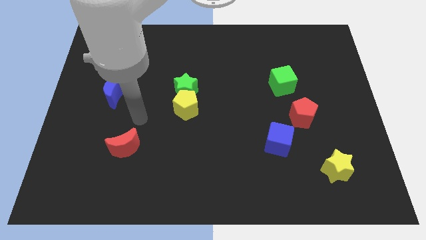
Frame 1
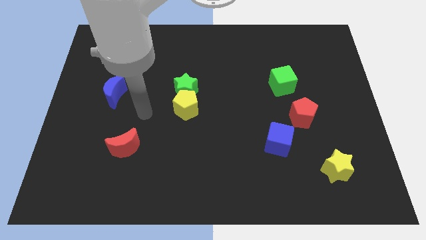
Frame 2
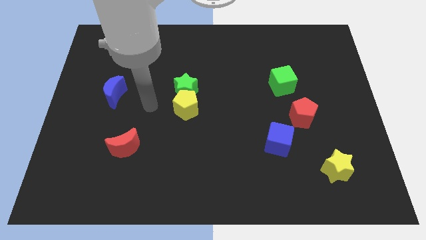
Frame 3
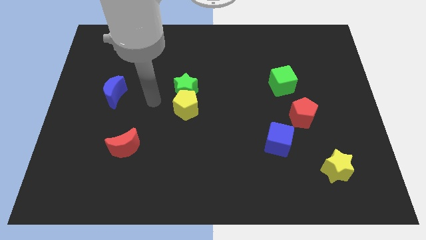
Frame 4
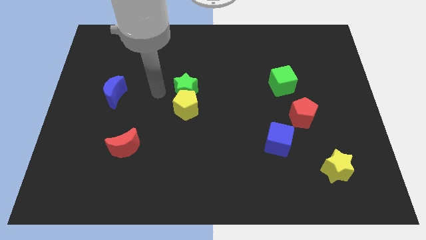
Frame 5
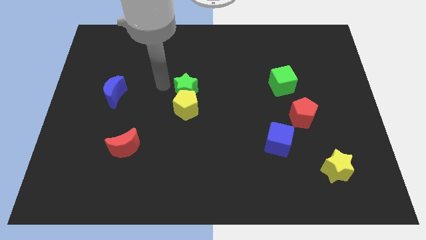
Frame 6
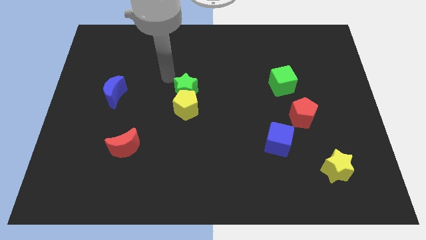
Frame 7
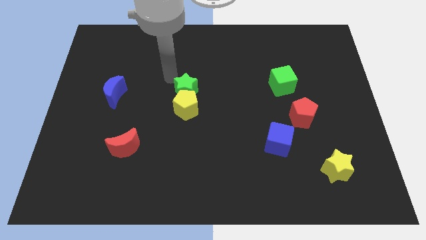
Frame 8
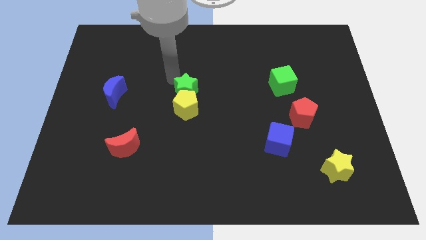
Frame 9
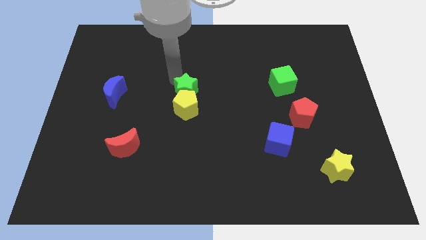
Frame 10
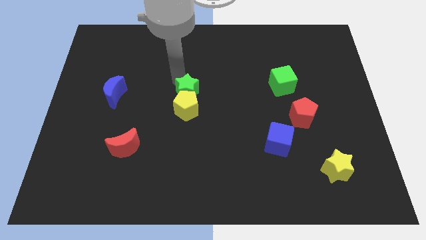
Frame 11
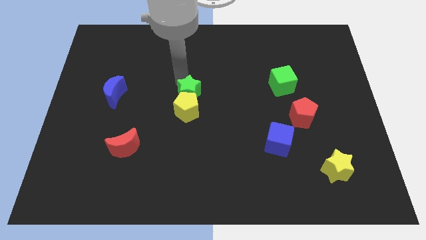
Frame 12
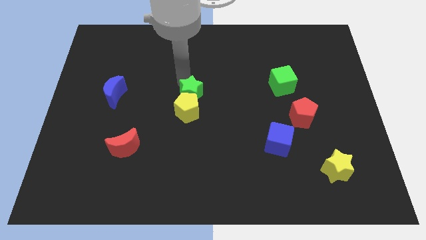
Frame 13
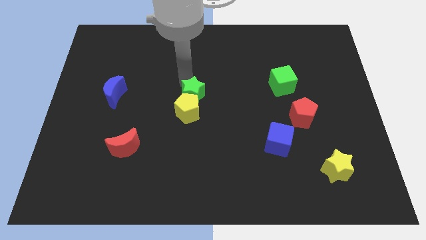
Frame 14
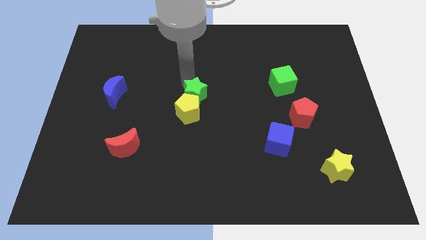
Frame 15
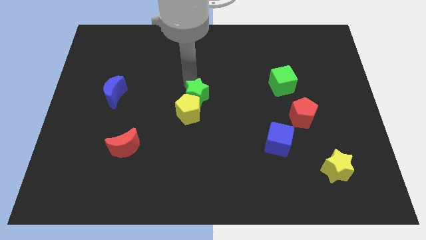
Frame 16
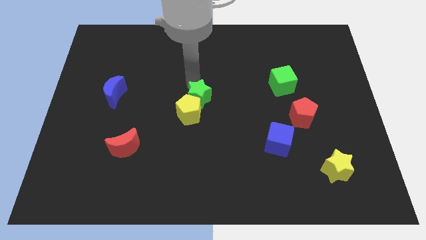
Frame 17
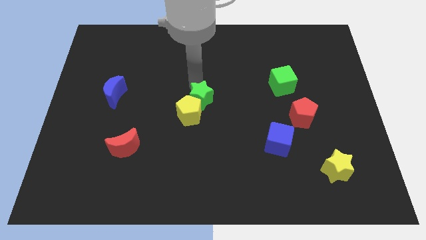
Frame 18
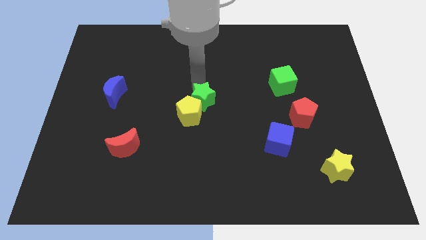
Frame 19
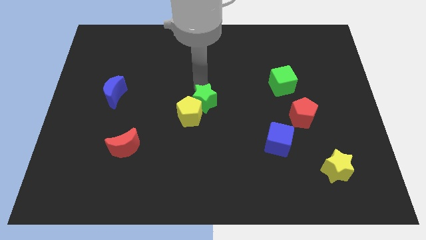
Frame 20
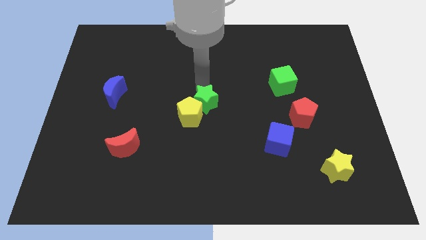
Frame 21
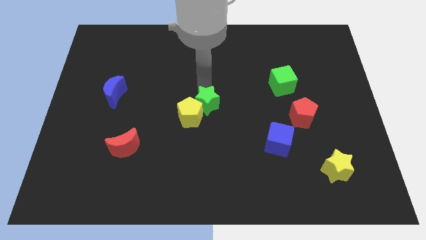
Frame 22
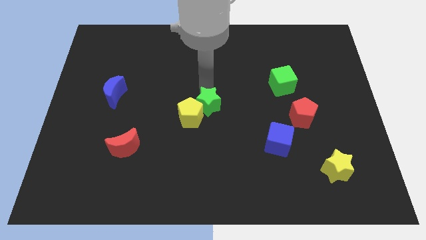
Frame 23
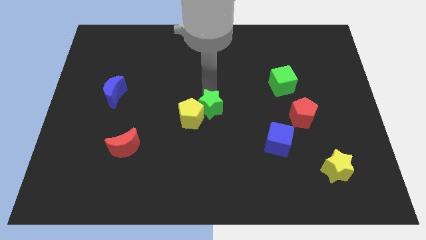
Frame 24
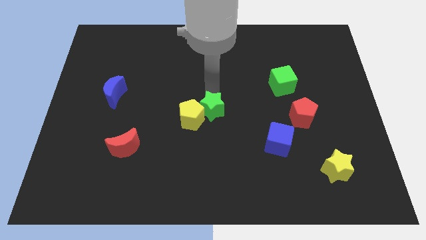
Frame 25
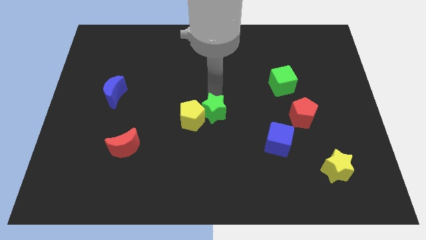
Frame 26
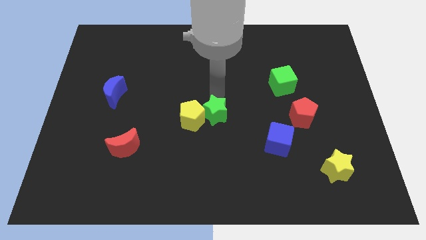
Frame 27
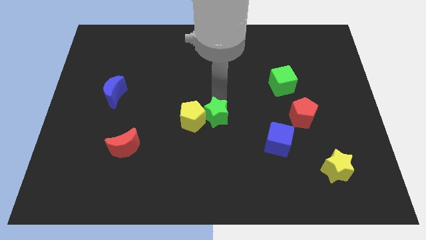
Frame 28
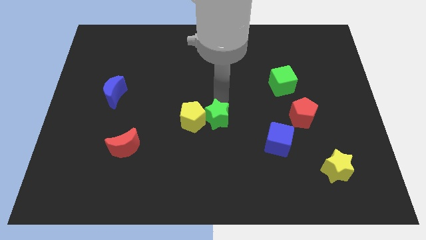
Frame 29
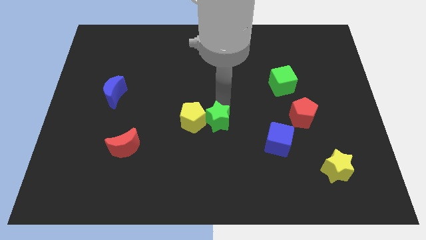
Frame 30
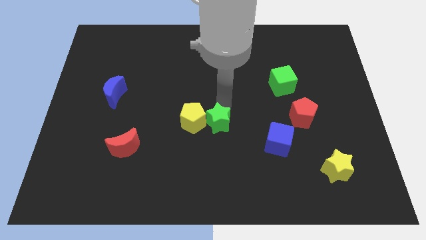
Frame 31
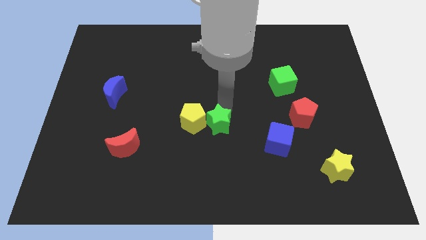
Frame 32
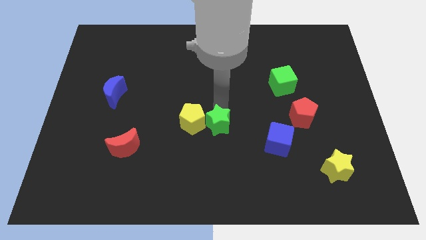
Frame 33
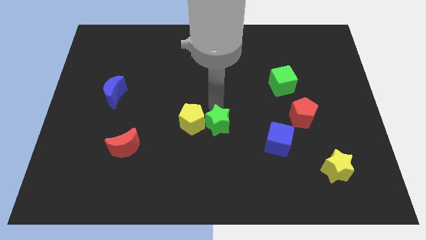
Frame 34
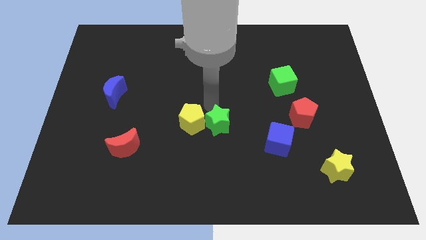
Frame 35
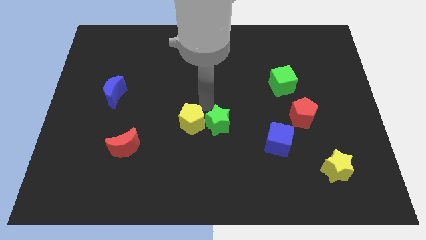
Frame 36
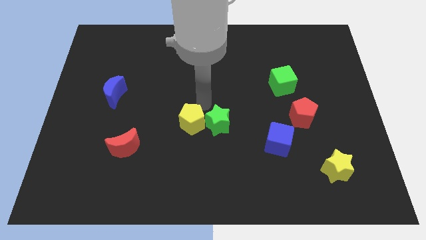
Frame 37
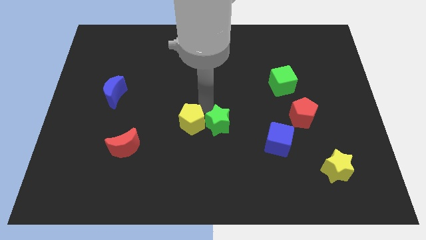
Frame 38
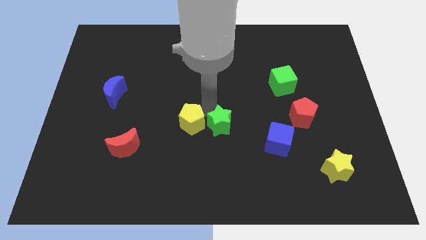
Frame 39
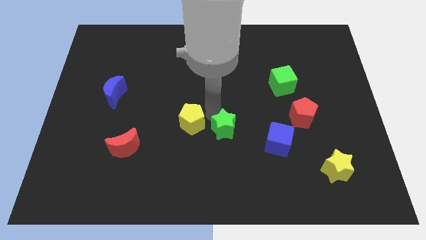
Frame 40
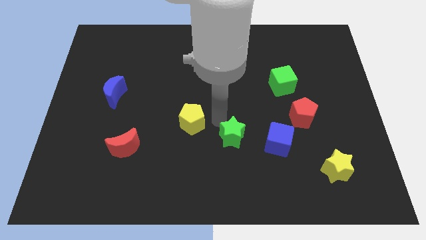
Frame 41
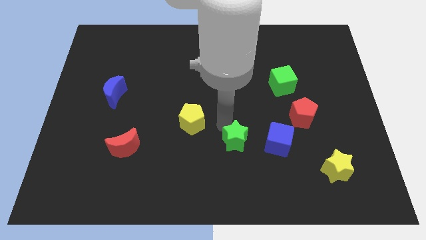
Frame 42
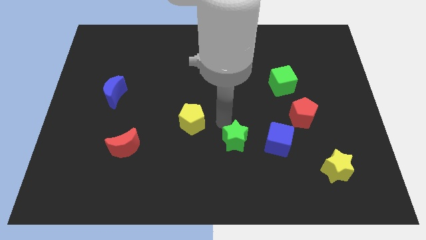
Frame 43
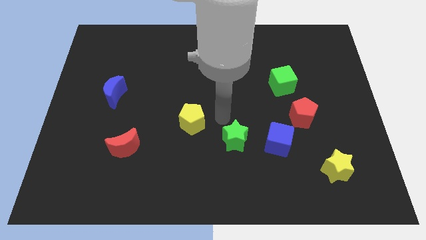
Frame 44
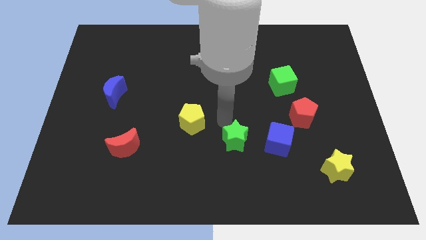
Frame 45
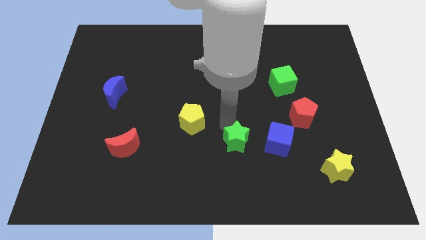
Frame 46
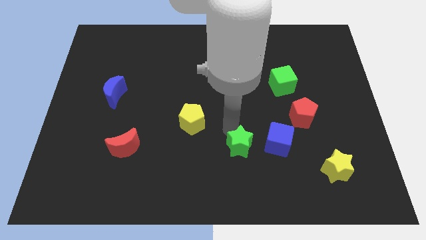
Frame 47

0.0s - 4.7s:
slide the green star downwards and to the right diagonally

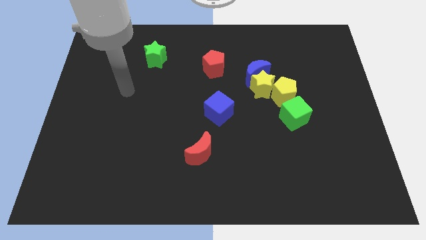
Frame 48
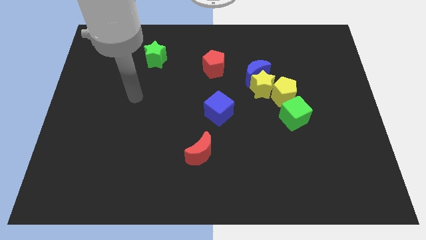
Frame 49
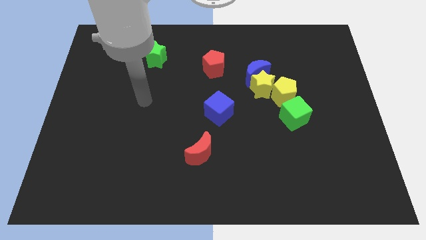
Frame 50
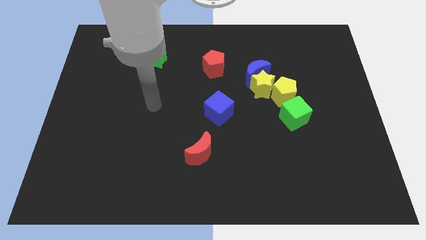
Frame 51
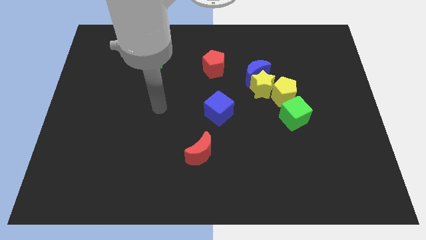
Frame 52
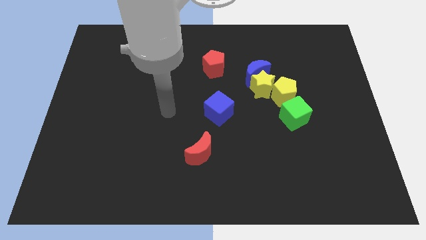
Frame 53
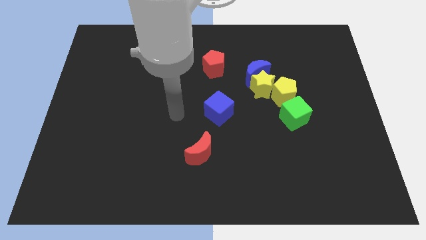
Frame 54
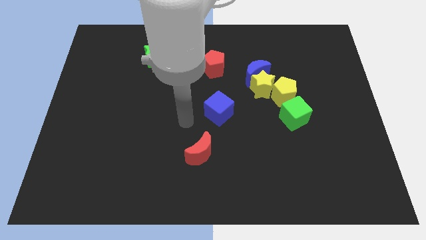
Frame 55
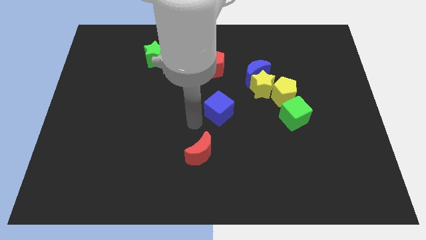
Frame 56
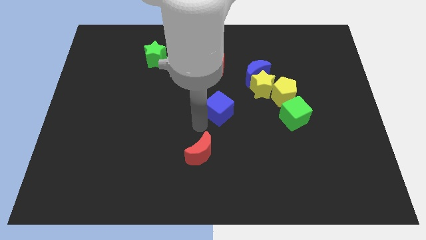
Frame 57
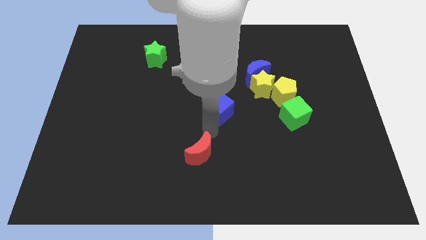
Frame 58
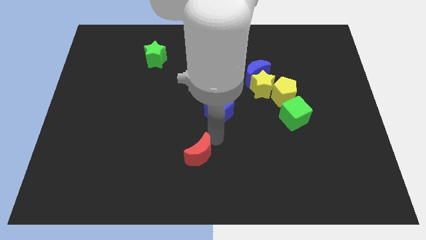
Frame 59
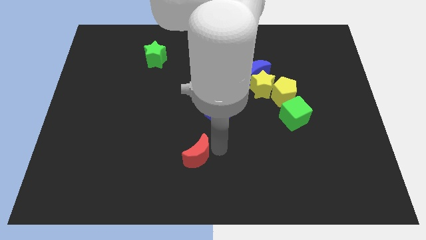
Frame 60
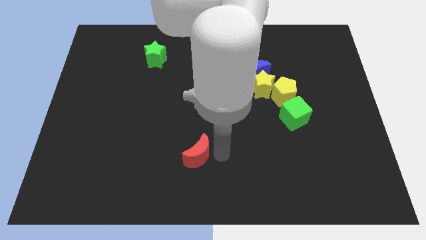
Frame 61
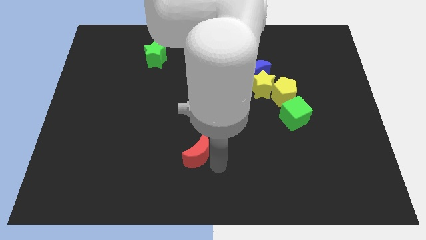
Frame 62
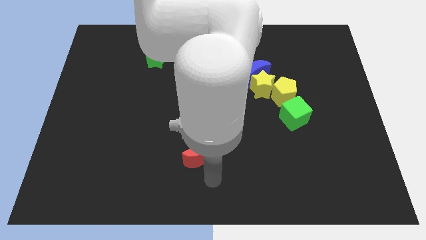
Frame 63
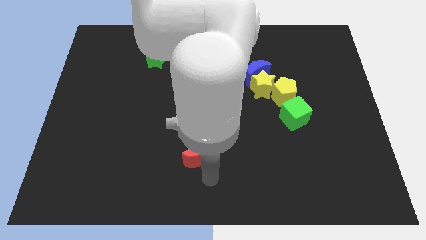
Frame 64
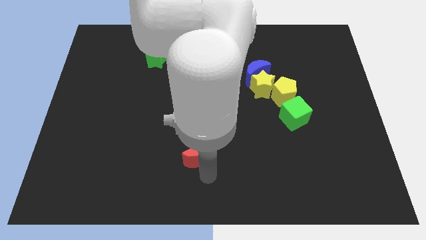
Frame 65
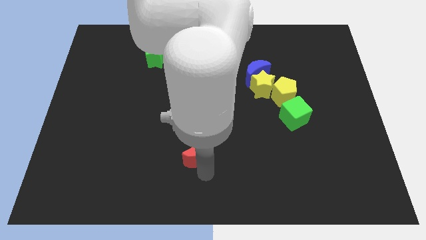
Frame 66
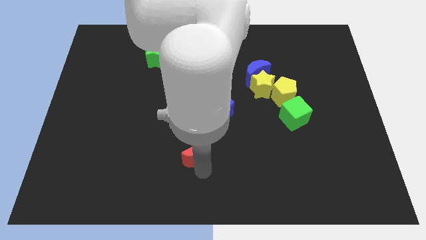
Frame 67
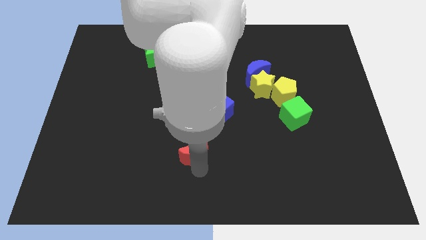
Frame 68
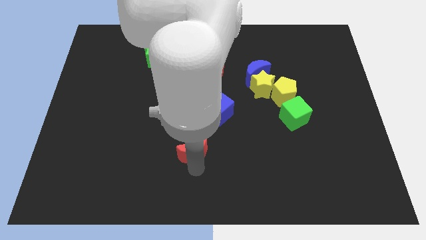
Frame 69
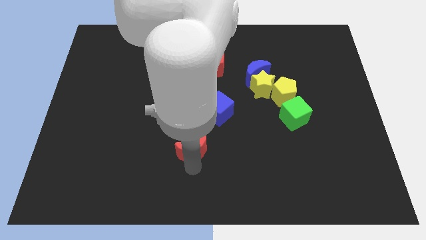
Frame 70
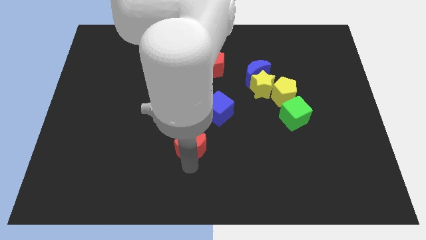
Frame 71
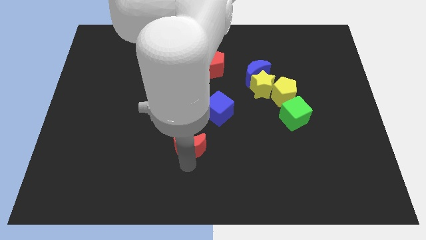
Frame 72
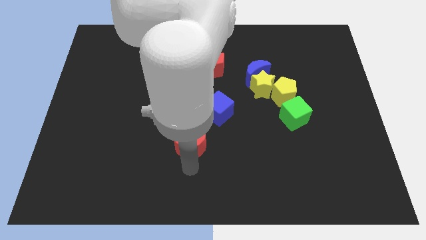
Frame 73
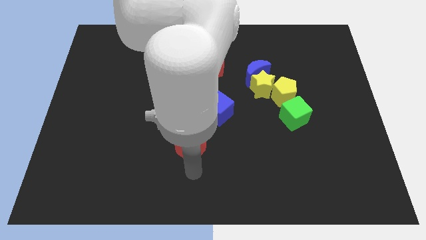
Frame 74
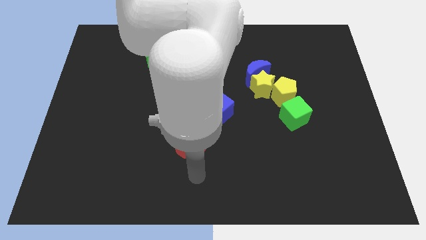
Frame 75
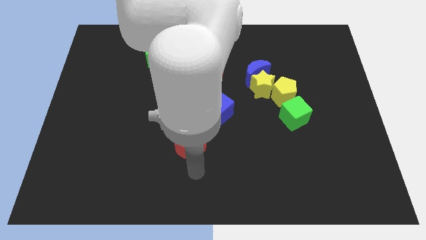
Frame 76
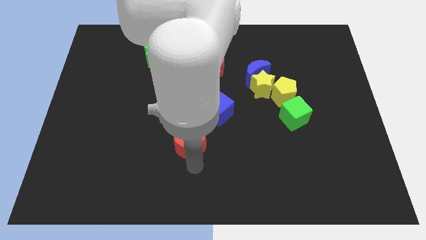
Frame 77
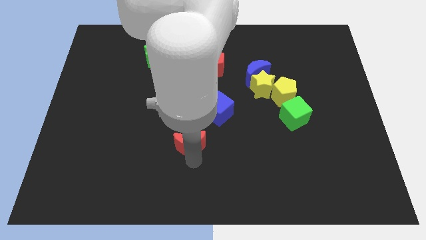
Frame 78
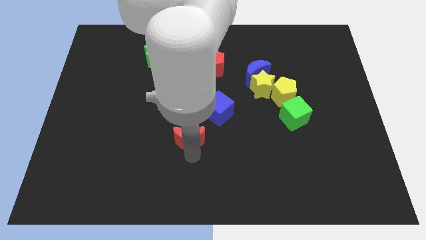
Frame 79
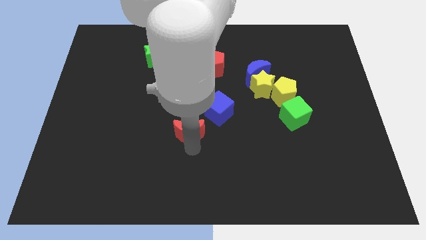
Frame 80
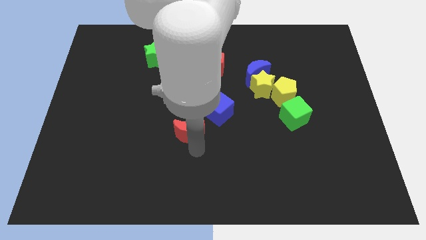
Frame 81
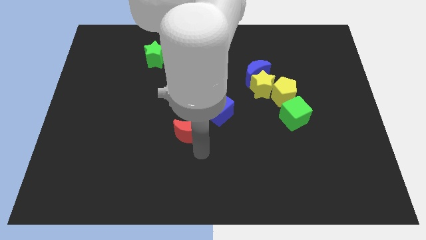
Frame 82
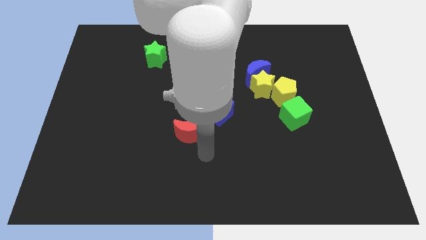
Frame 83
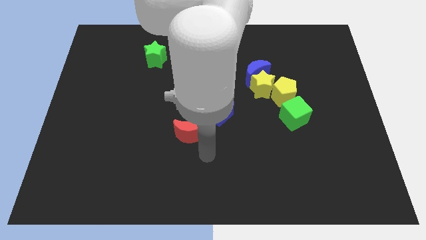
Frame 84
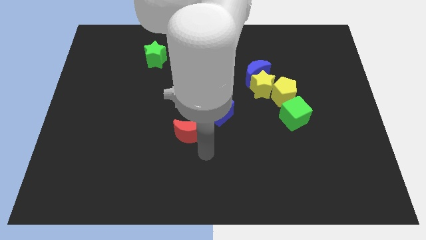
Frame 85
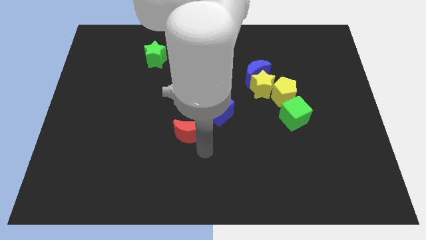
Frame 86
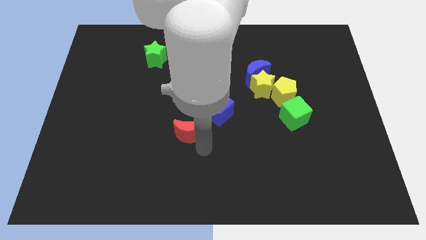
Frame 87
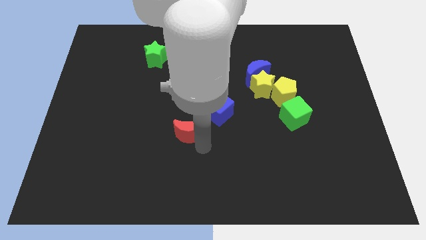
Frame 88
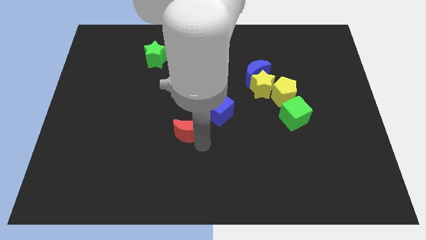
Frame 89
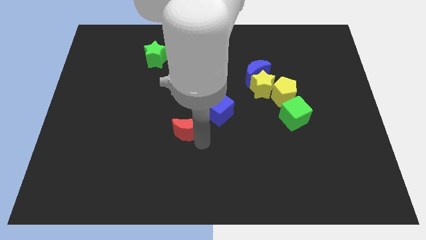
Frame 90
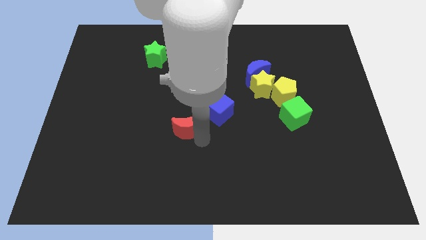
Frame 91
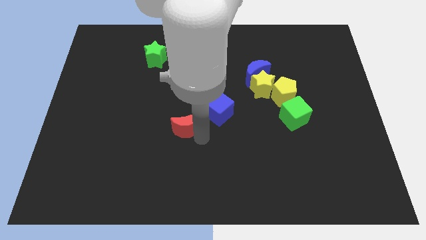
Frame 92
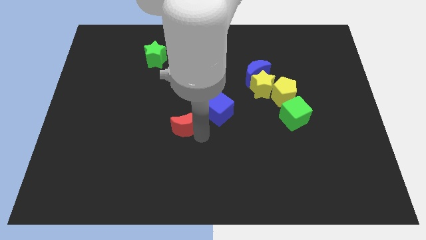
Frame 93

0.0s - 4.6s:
slightly push the red moon diagonally up and to the left
